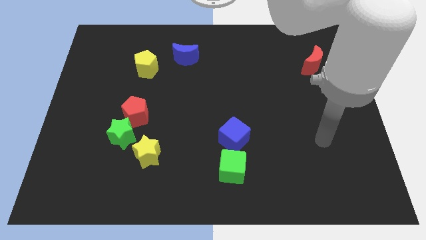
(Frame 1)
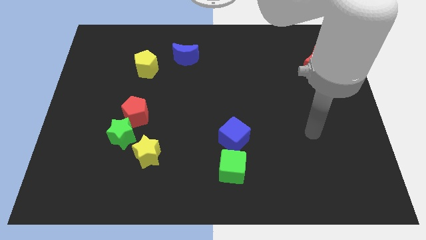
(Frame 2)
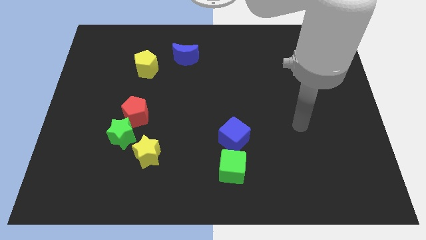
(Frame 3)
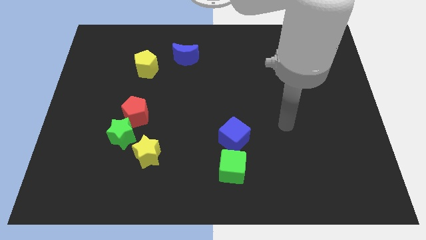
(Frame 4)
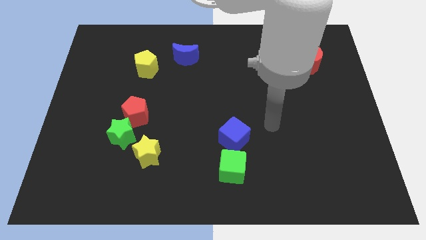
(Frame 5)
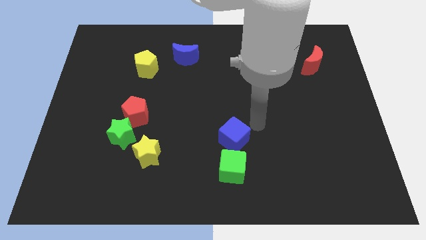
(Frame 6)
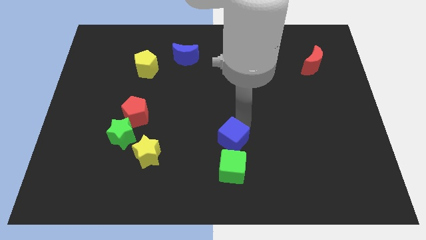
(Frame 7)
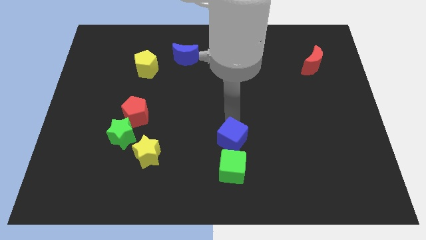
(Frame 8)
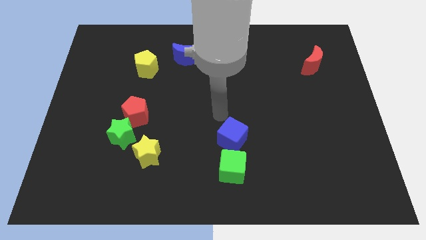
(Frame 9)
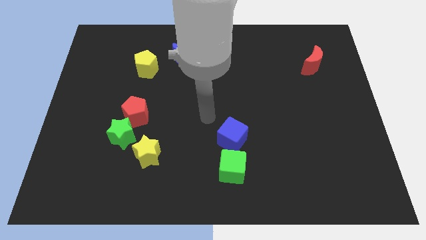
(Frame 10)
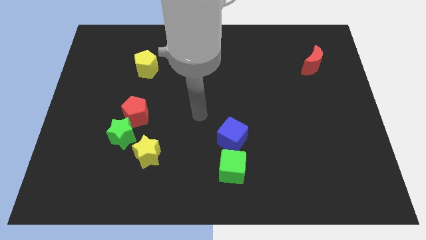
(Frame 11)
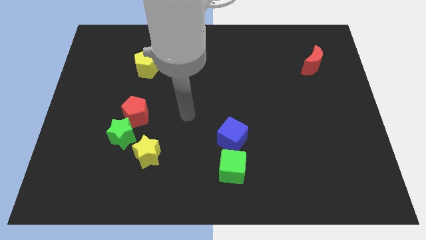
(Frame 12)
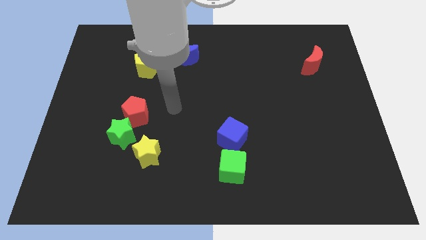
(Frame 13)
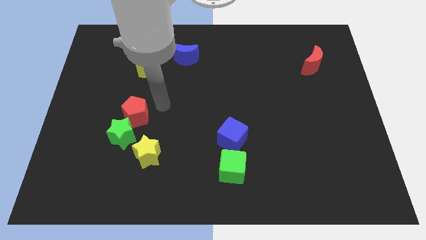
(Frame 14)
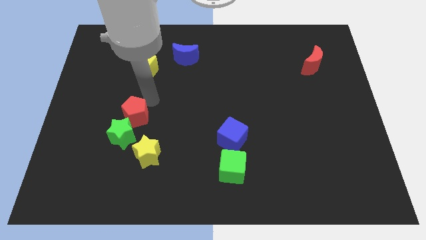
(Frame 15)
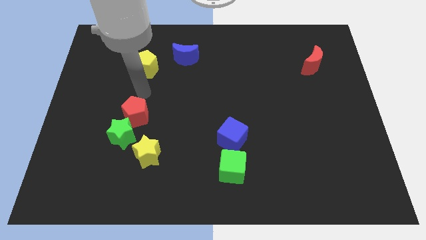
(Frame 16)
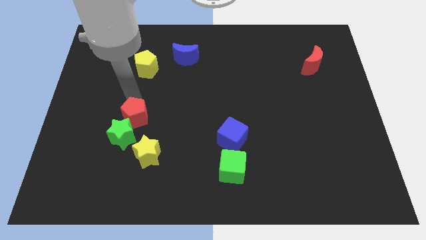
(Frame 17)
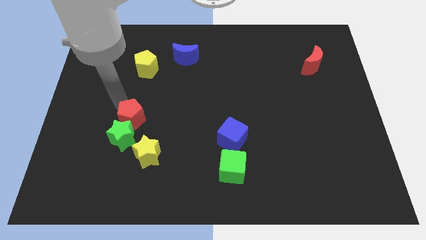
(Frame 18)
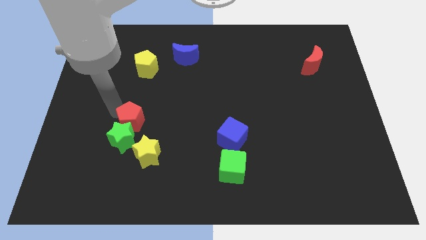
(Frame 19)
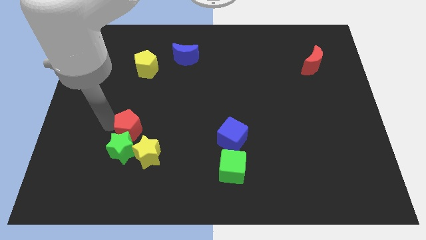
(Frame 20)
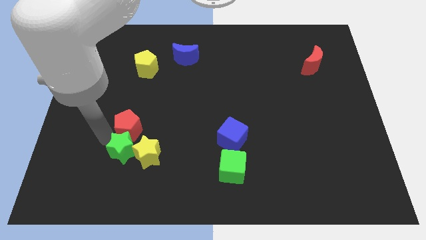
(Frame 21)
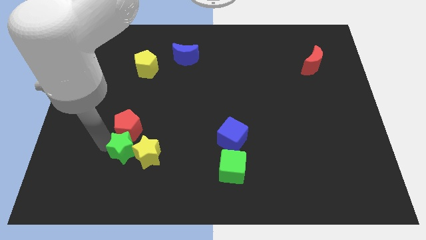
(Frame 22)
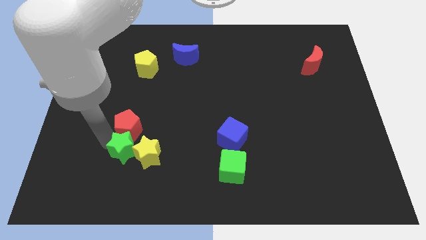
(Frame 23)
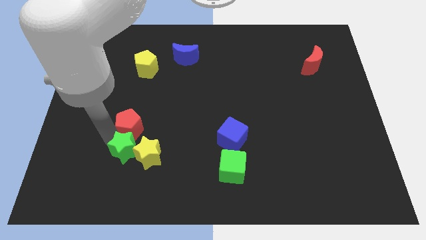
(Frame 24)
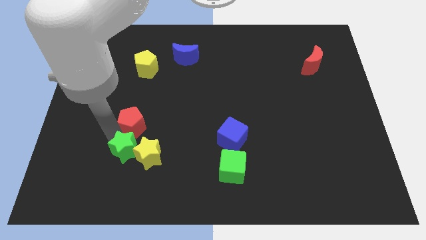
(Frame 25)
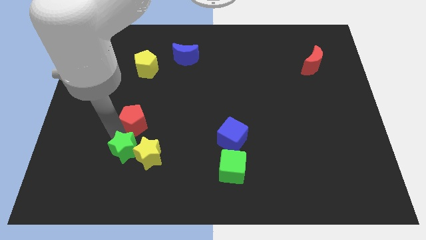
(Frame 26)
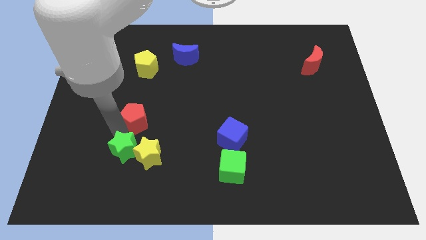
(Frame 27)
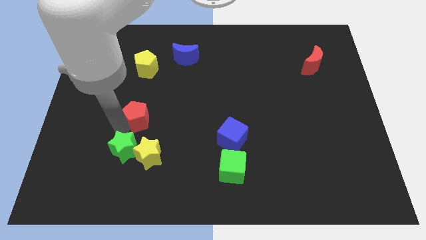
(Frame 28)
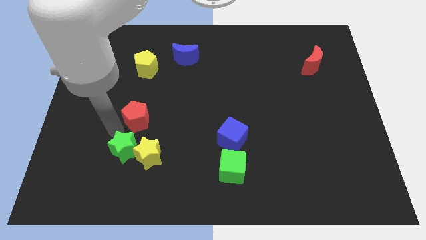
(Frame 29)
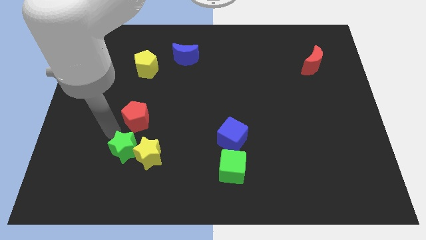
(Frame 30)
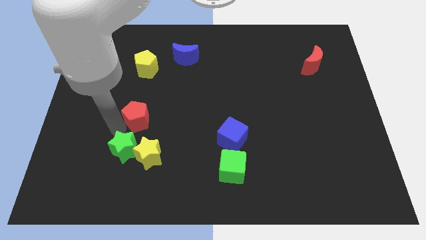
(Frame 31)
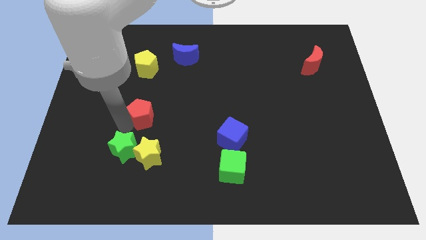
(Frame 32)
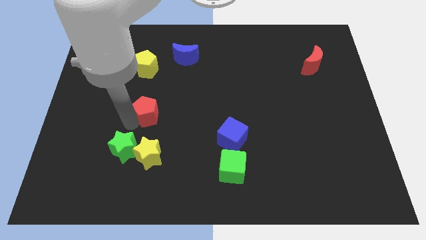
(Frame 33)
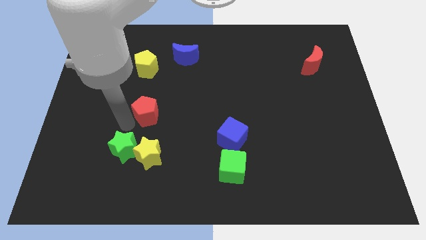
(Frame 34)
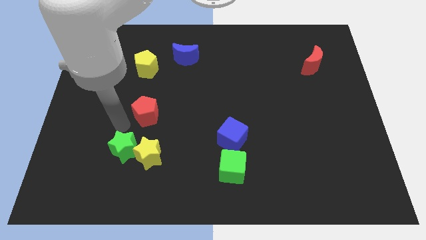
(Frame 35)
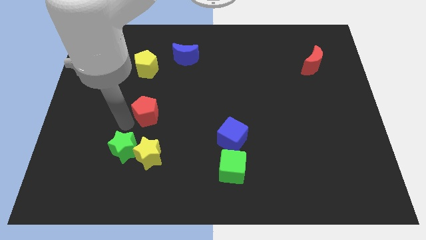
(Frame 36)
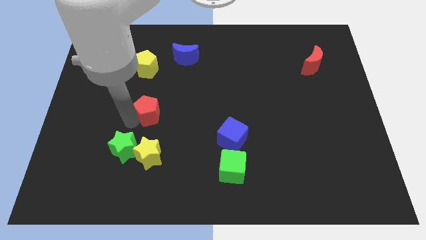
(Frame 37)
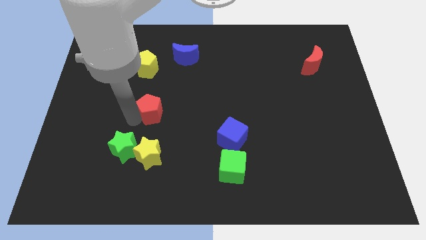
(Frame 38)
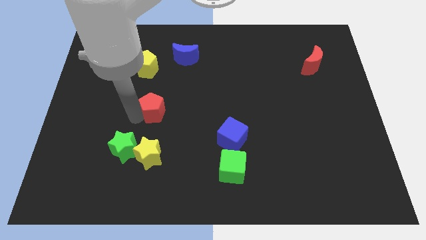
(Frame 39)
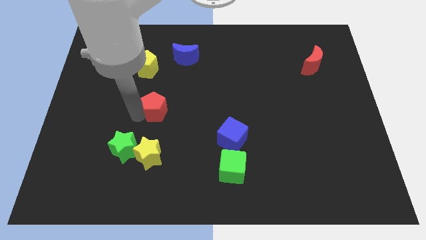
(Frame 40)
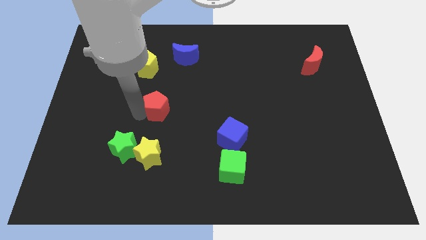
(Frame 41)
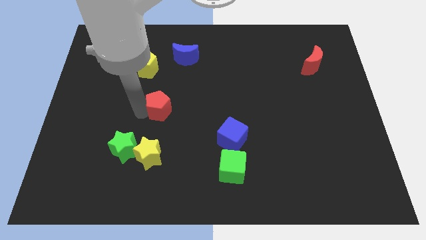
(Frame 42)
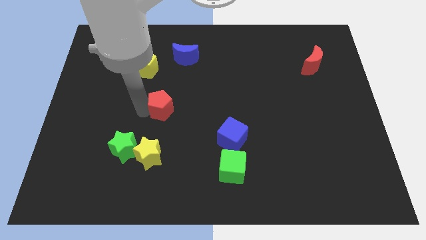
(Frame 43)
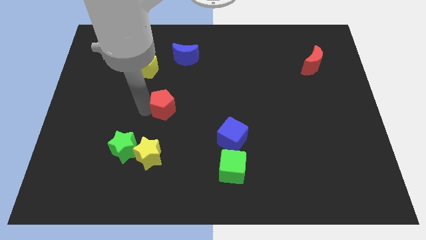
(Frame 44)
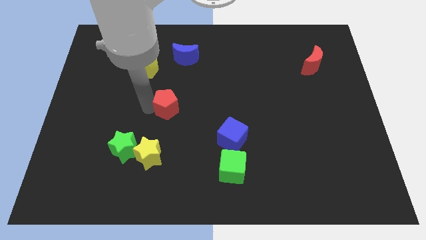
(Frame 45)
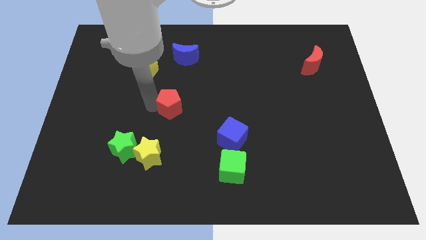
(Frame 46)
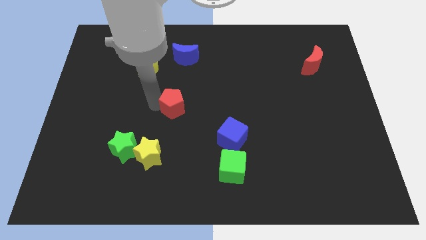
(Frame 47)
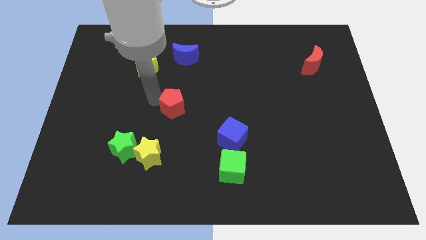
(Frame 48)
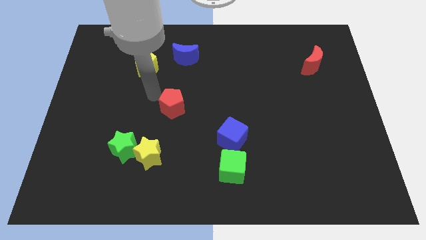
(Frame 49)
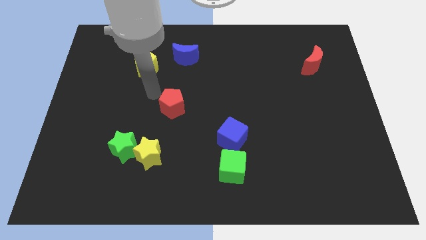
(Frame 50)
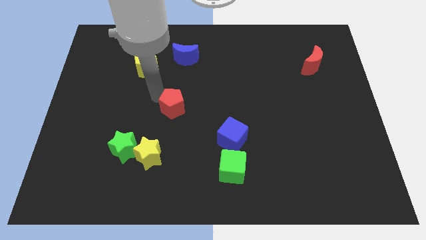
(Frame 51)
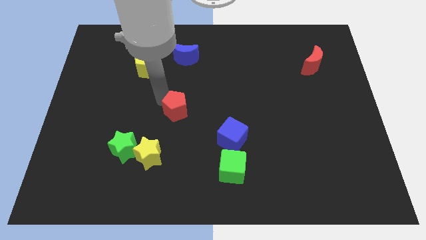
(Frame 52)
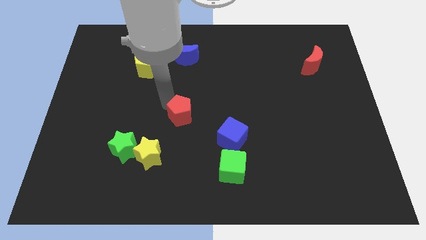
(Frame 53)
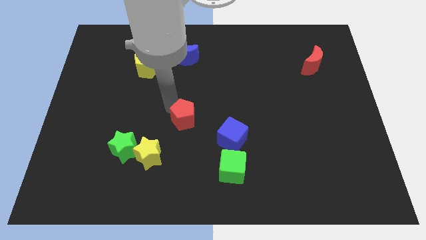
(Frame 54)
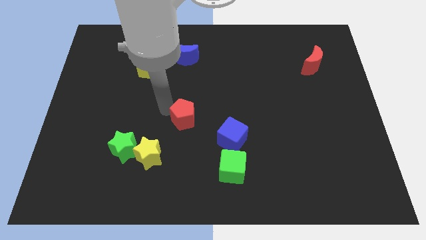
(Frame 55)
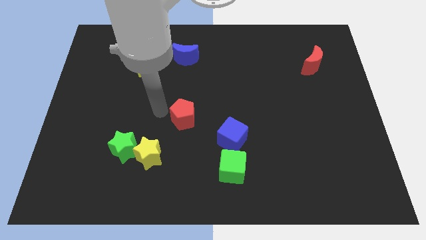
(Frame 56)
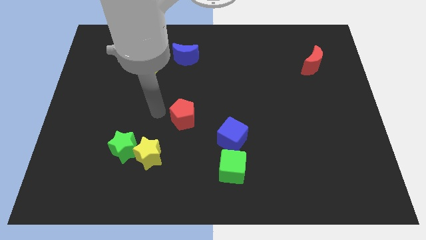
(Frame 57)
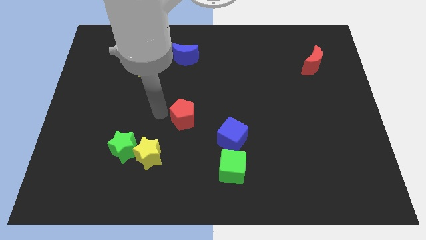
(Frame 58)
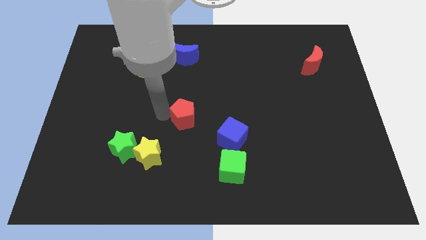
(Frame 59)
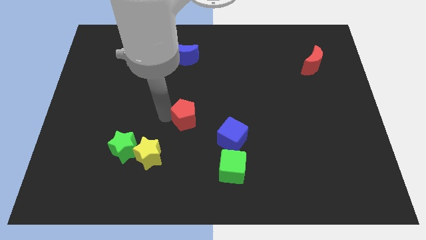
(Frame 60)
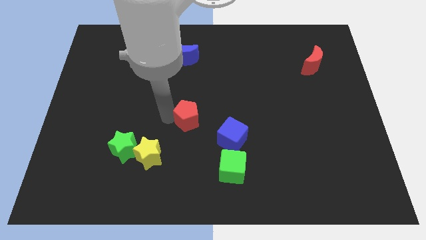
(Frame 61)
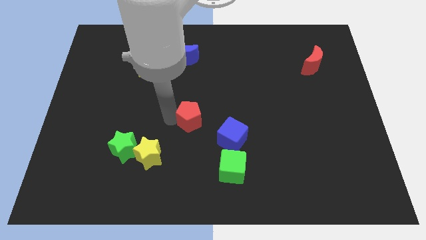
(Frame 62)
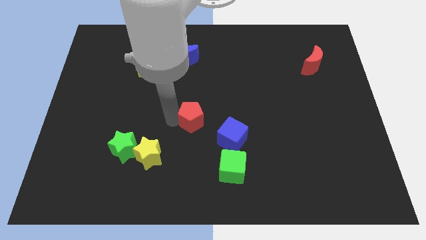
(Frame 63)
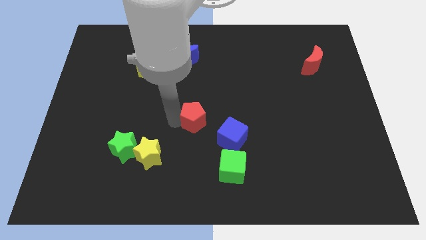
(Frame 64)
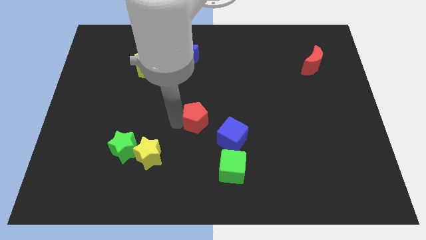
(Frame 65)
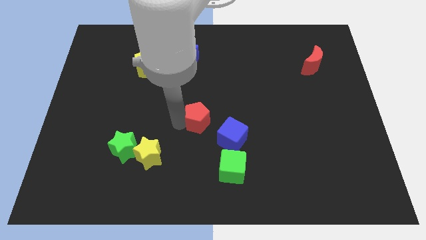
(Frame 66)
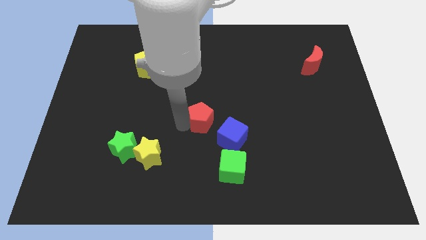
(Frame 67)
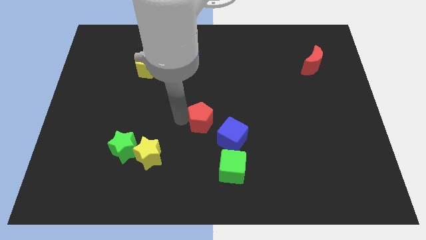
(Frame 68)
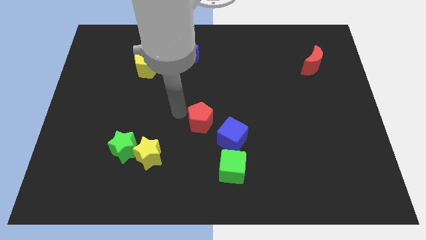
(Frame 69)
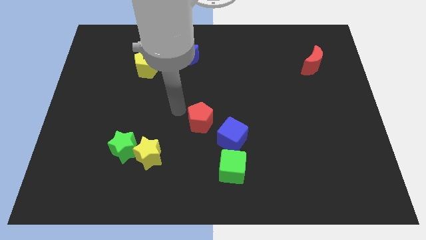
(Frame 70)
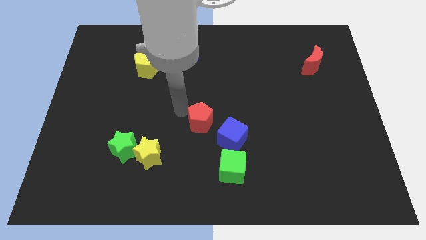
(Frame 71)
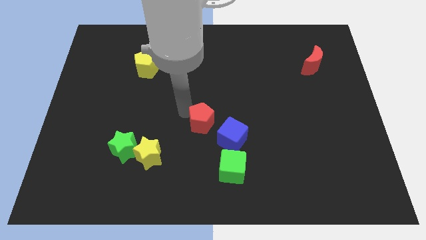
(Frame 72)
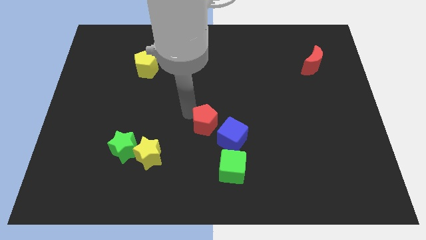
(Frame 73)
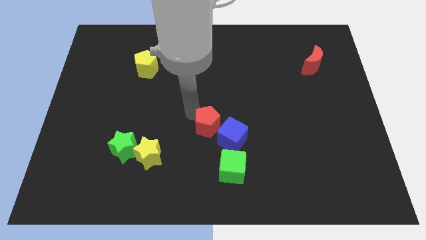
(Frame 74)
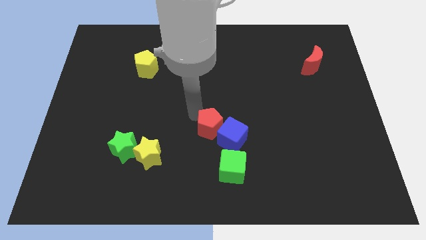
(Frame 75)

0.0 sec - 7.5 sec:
put the red pentagon close to the blue cube
